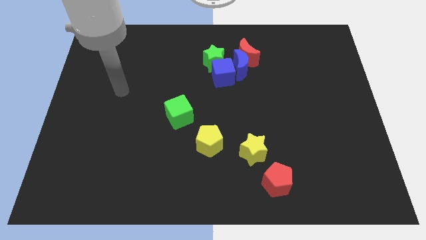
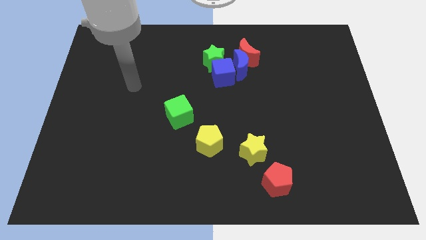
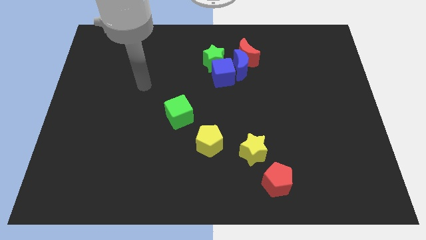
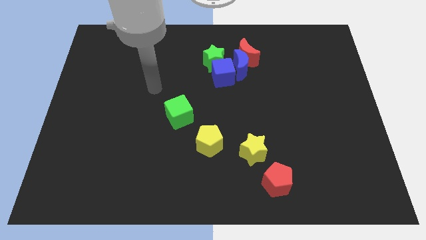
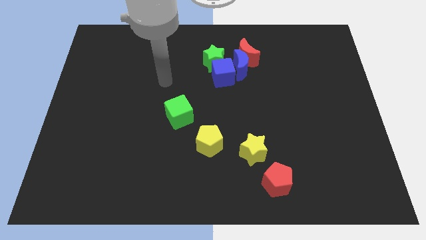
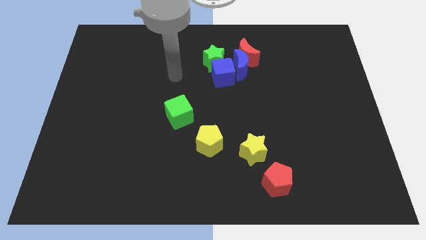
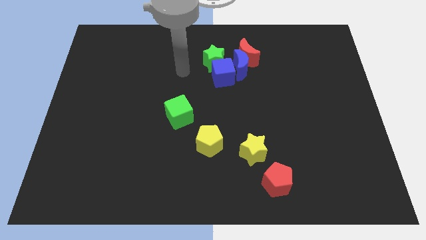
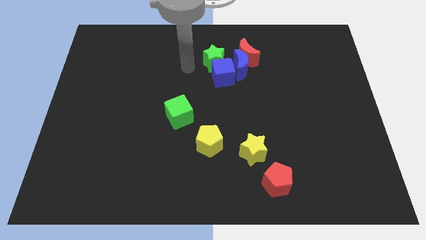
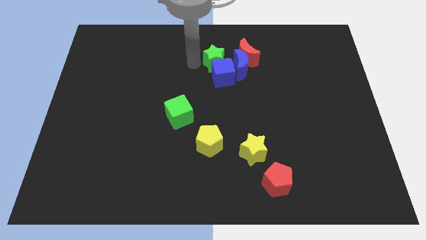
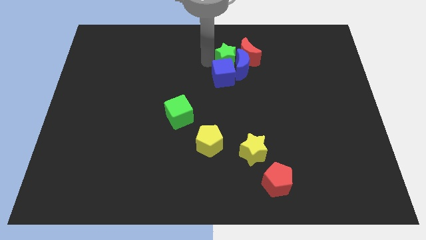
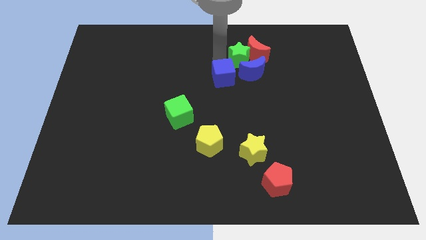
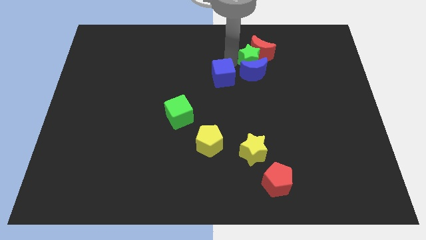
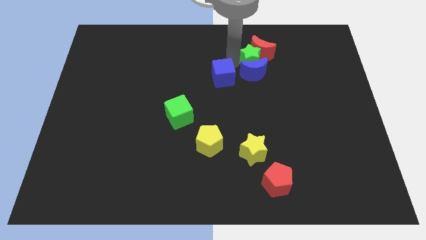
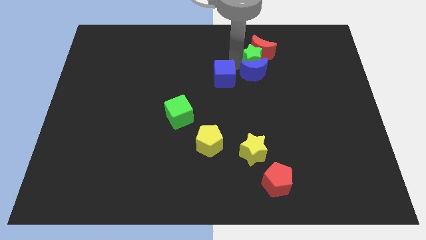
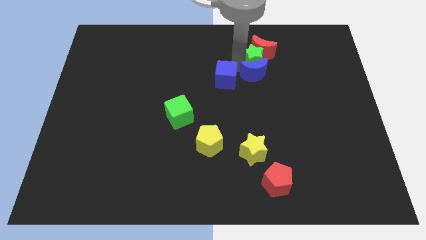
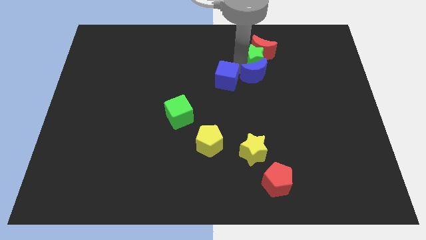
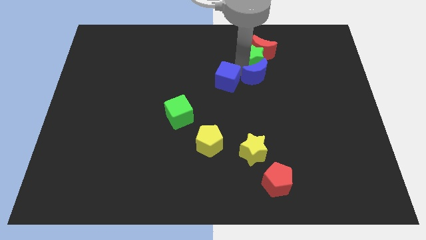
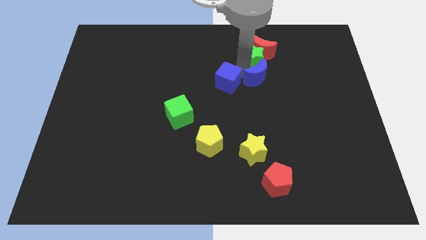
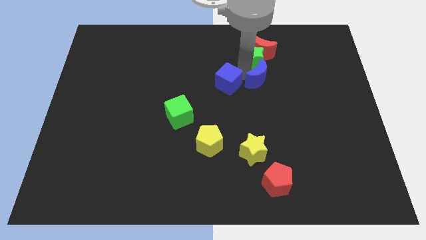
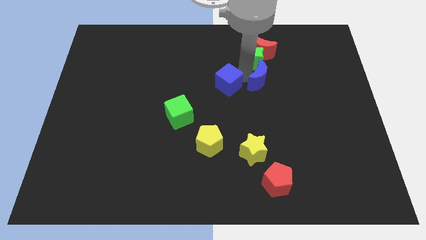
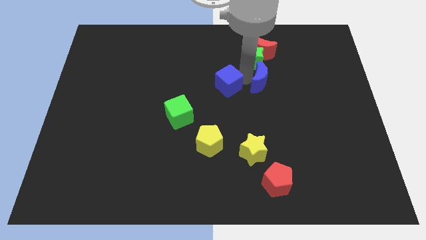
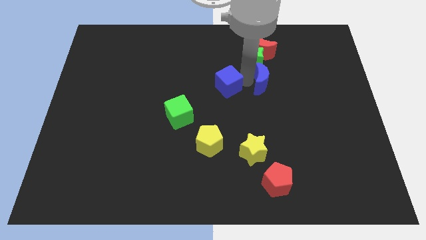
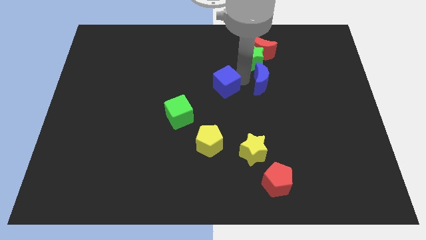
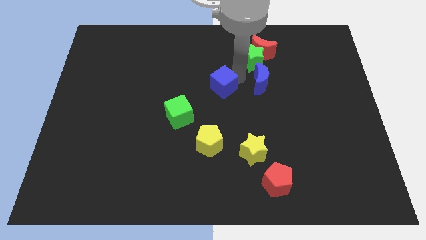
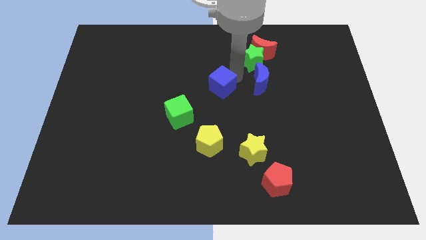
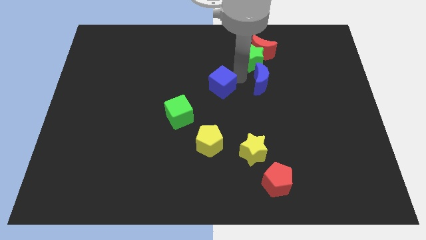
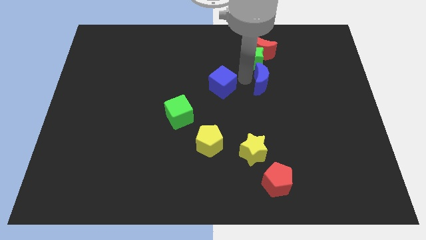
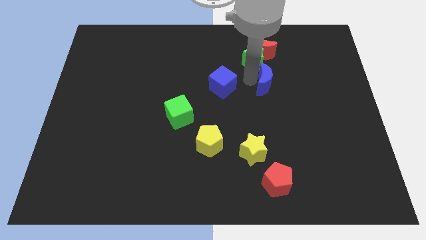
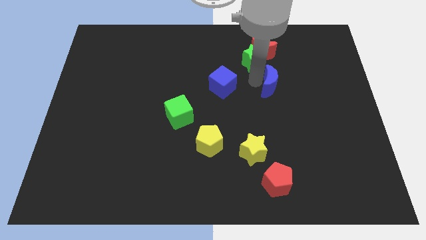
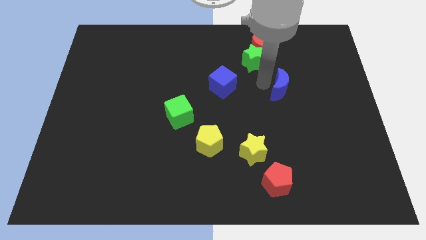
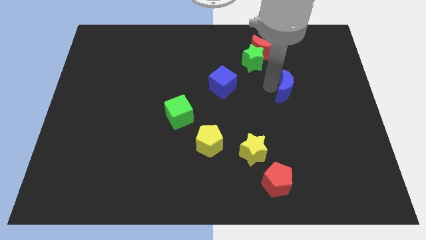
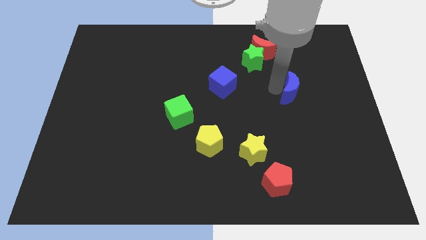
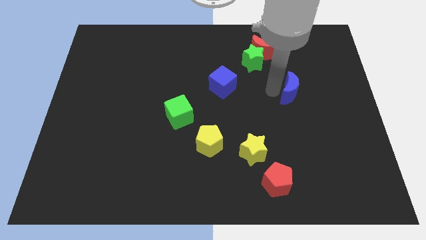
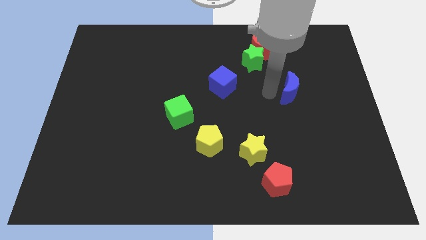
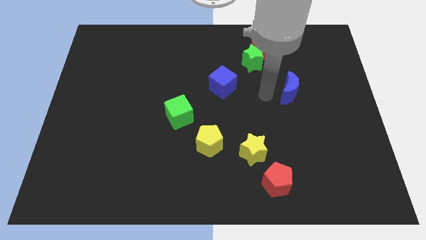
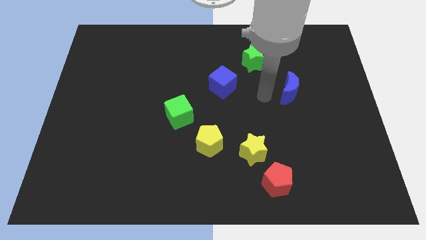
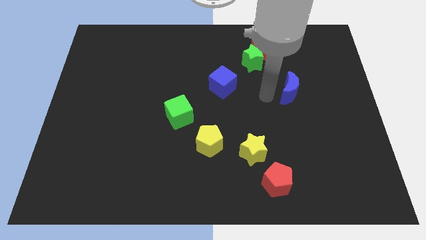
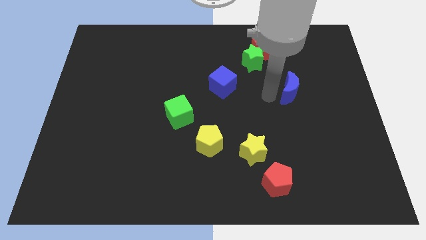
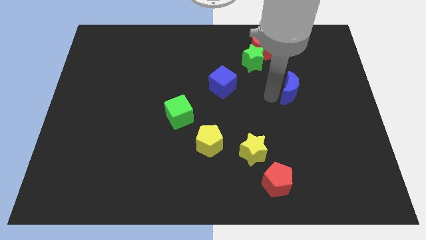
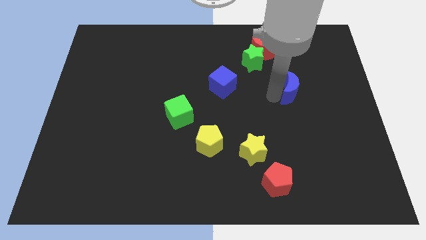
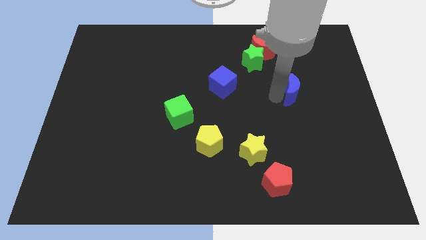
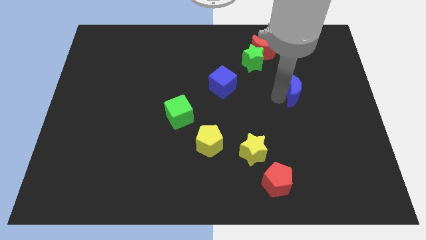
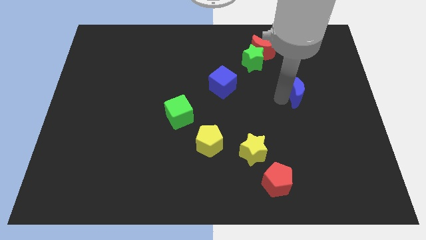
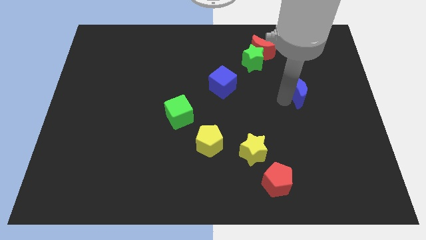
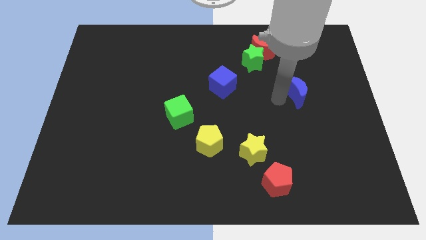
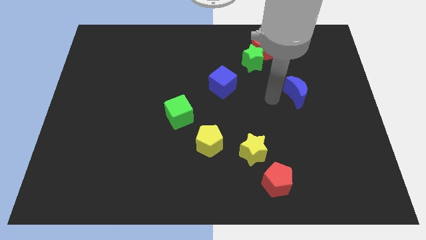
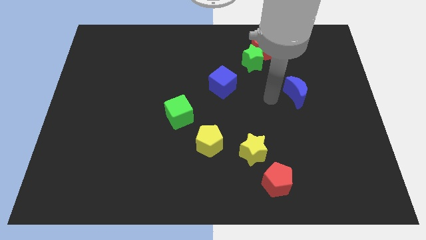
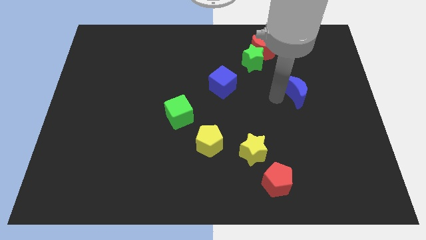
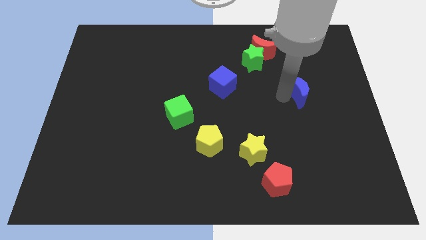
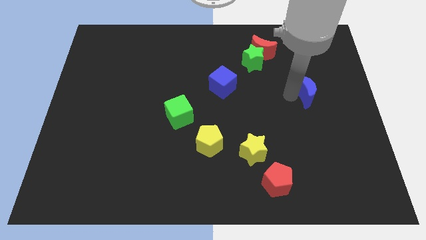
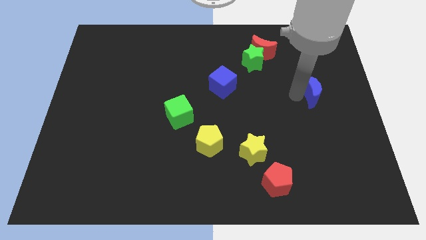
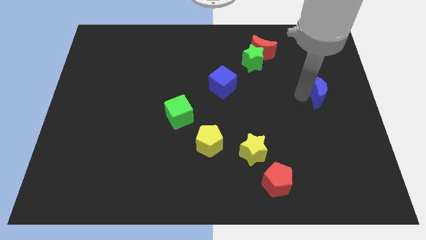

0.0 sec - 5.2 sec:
move the blue moon to the right side of the board

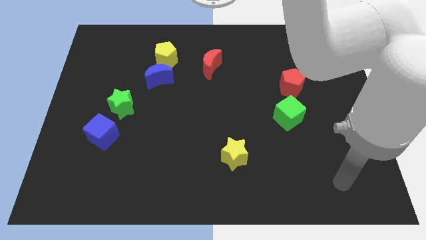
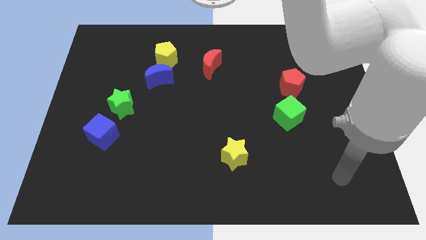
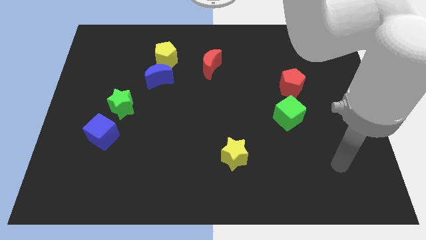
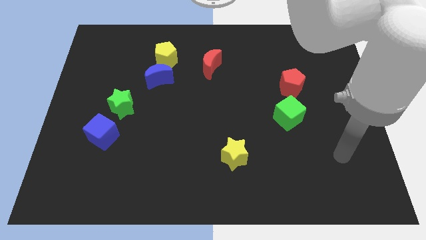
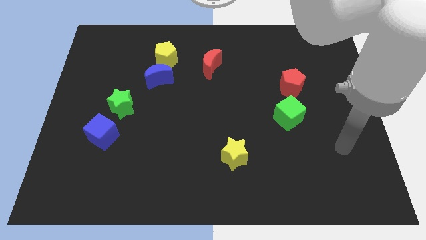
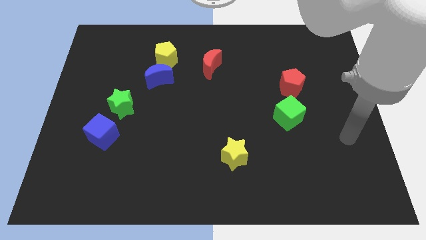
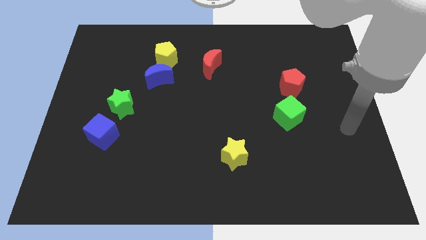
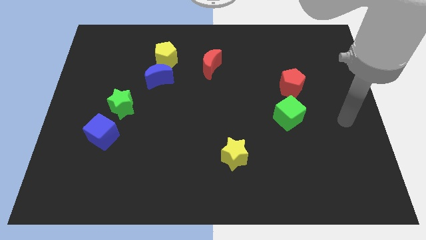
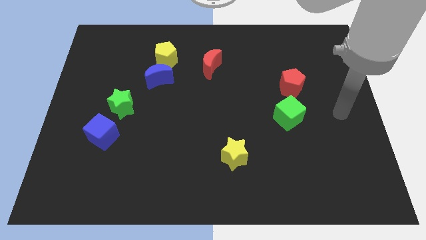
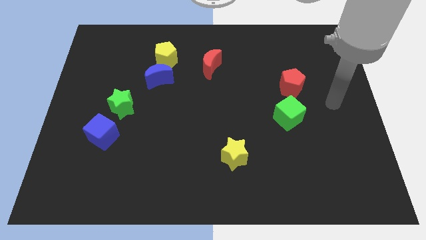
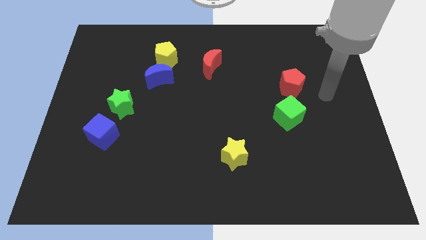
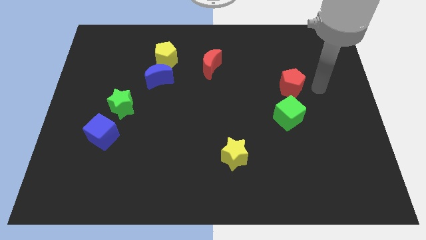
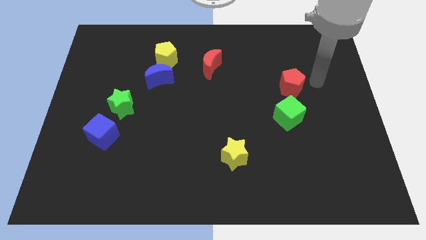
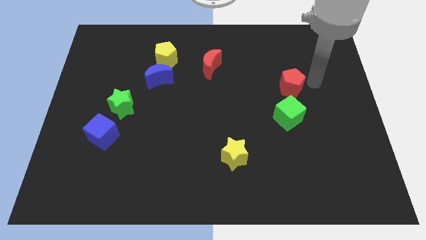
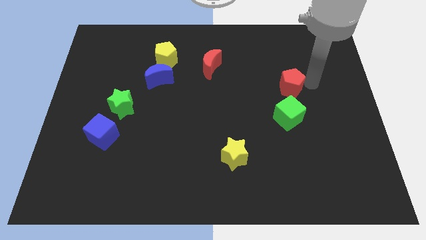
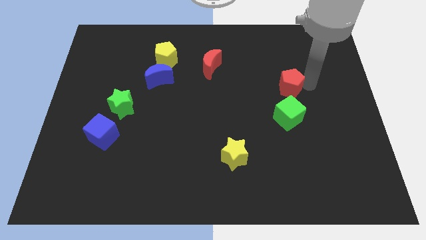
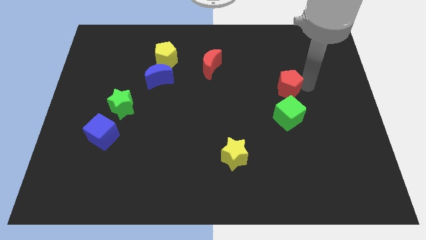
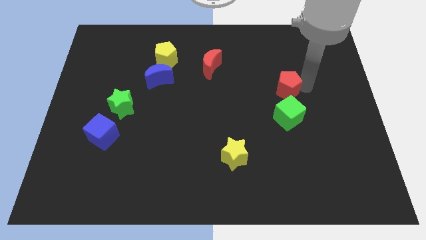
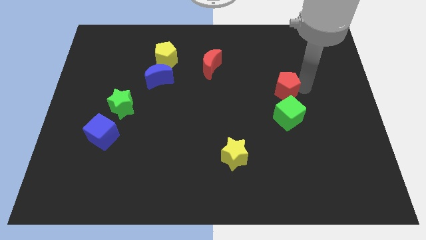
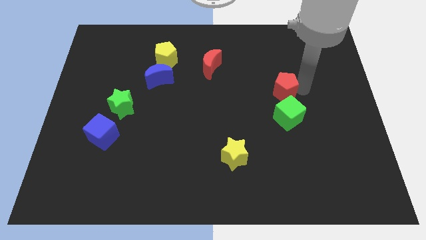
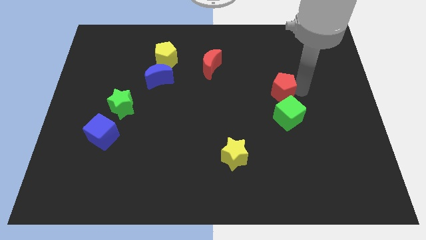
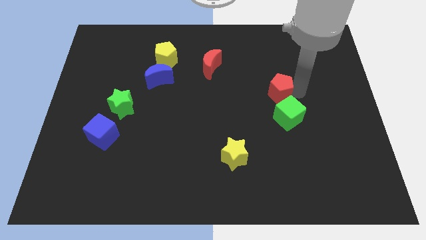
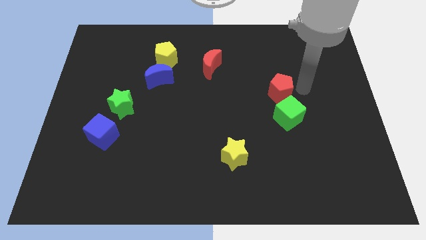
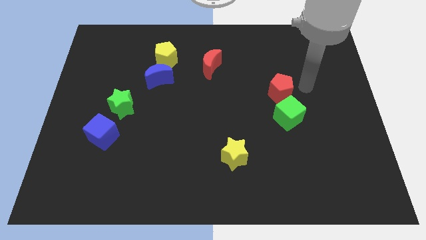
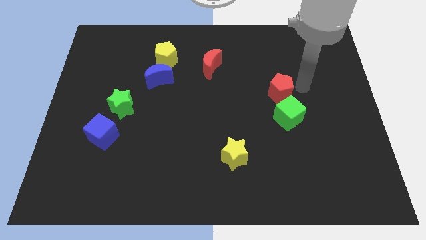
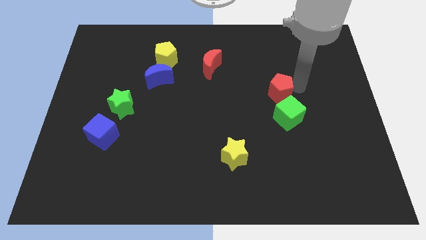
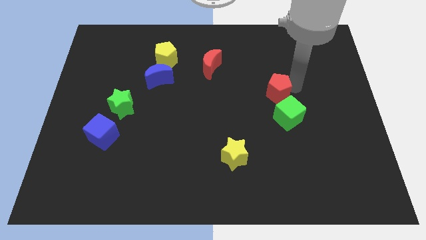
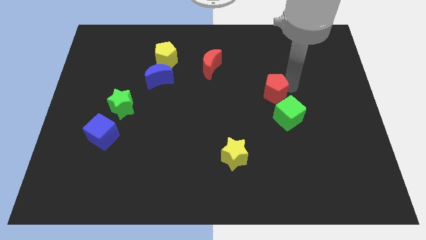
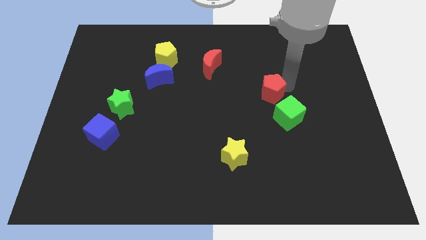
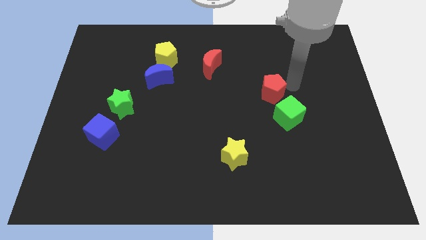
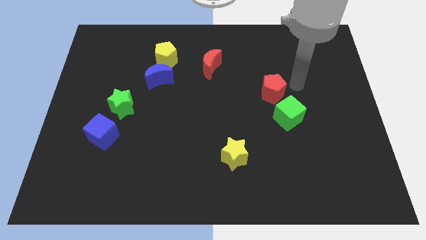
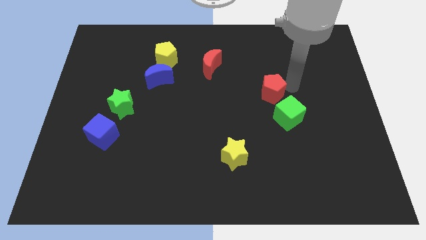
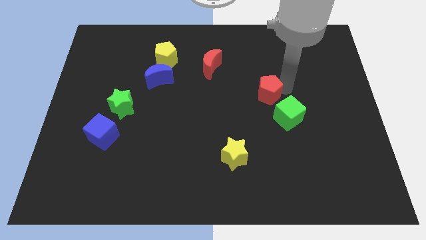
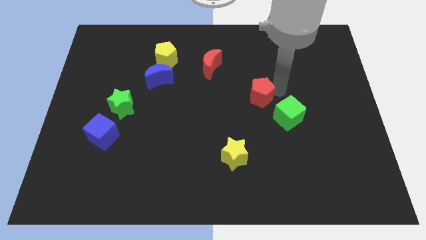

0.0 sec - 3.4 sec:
slide the red pentagon to the middle
